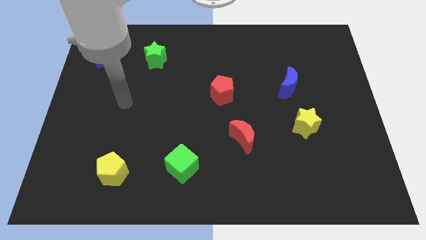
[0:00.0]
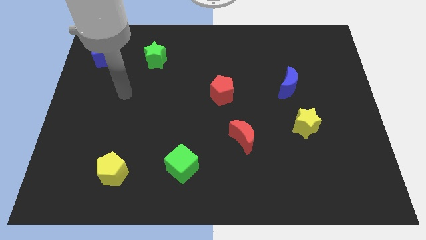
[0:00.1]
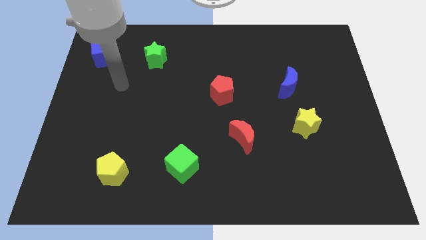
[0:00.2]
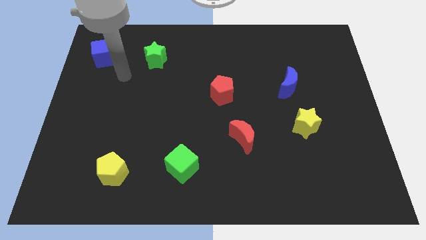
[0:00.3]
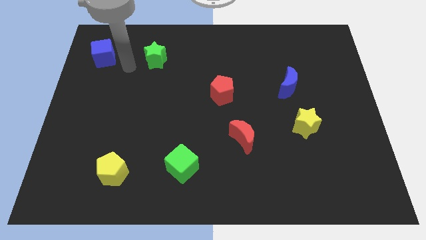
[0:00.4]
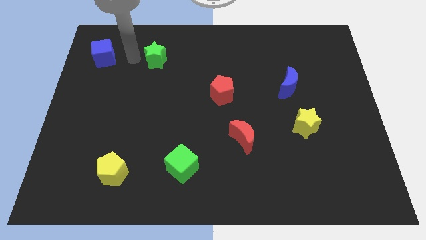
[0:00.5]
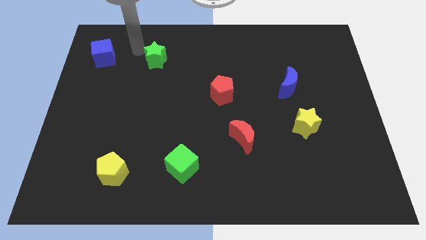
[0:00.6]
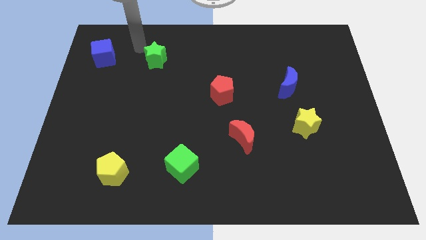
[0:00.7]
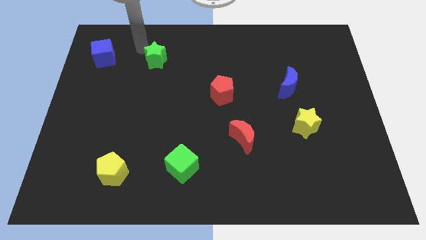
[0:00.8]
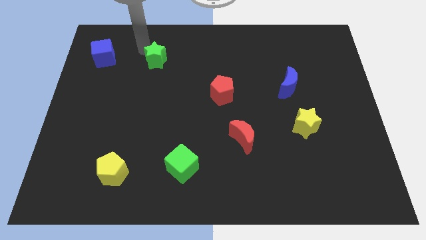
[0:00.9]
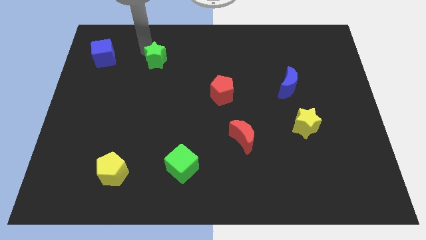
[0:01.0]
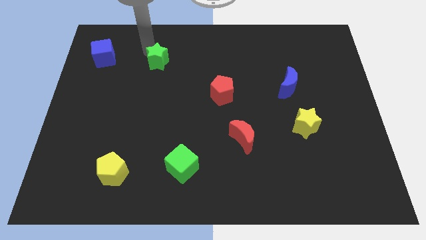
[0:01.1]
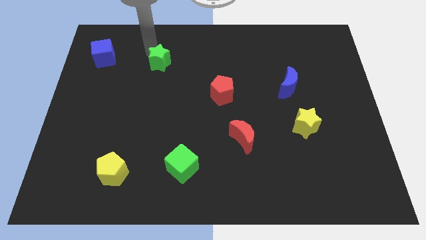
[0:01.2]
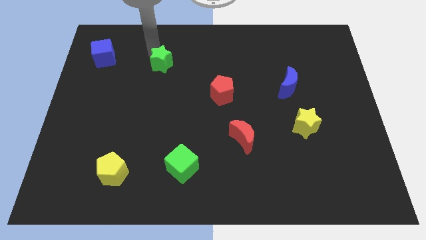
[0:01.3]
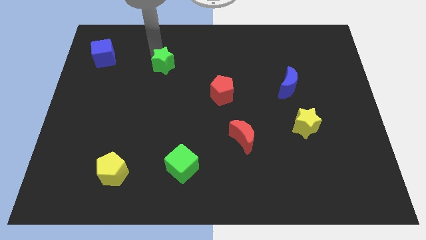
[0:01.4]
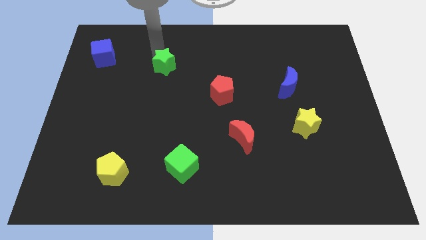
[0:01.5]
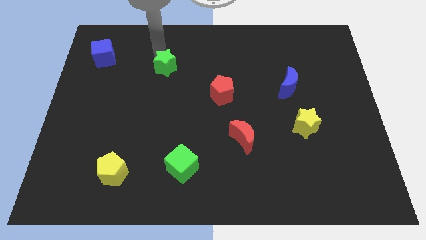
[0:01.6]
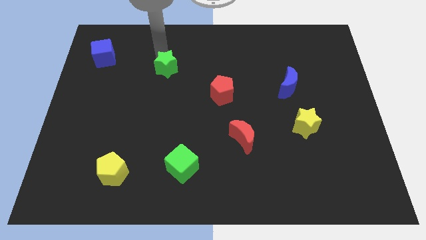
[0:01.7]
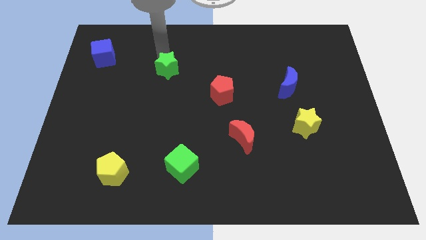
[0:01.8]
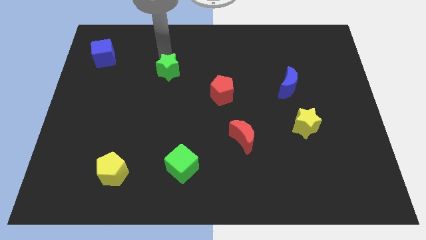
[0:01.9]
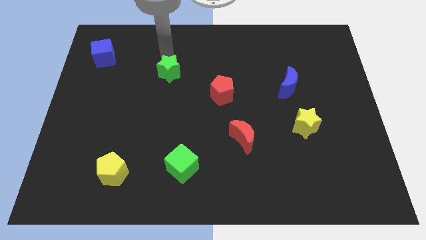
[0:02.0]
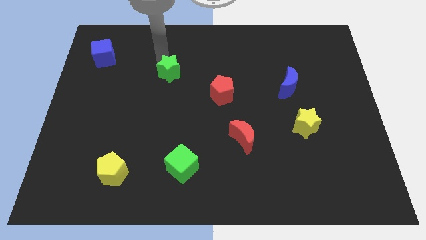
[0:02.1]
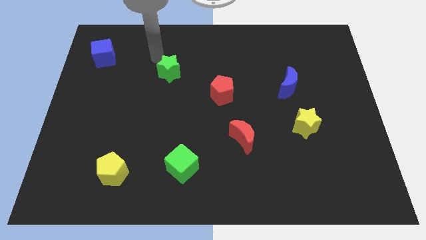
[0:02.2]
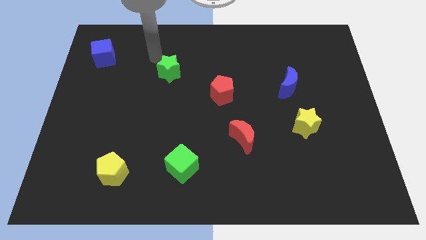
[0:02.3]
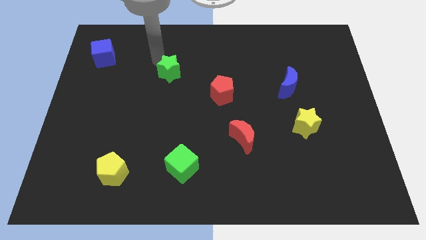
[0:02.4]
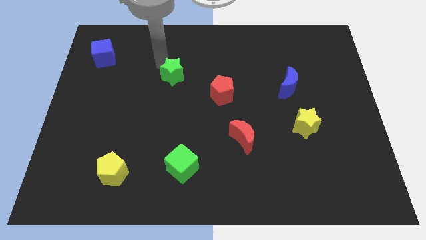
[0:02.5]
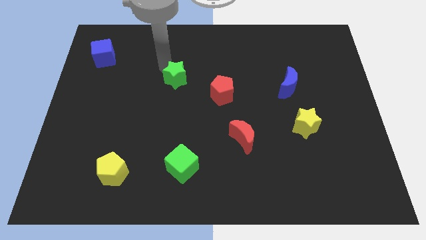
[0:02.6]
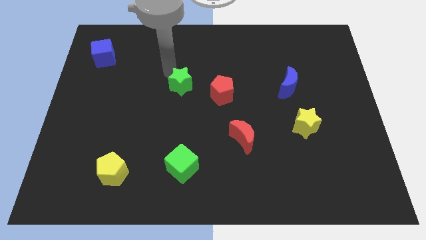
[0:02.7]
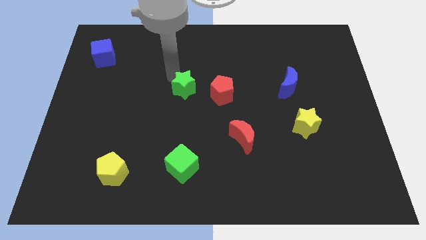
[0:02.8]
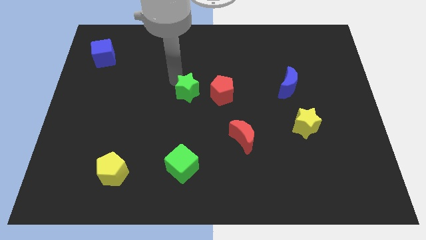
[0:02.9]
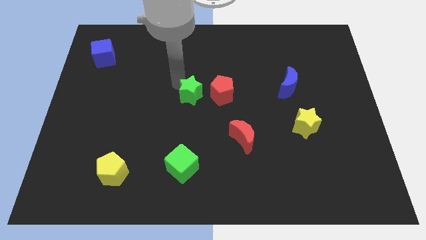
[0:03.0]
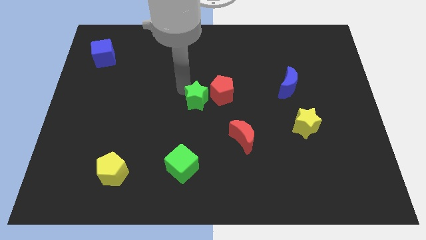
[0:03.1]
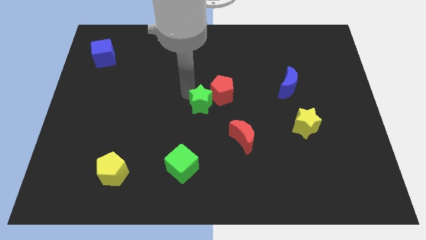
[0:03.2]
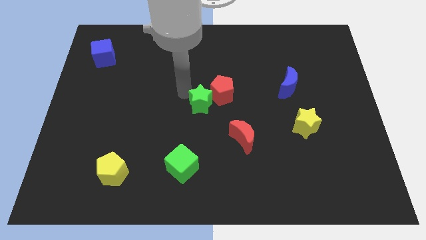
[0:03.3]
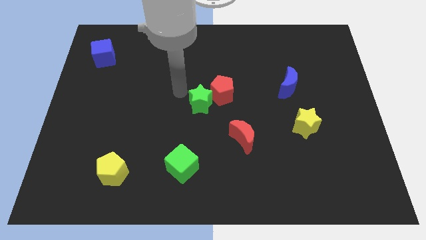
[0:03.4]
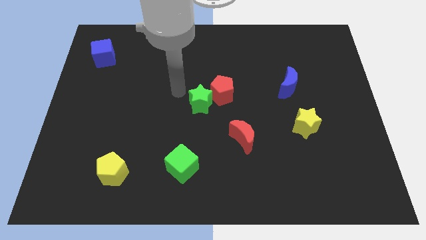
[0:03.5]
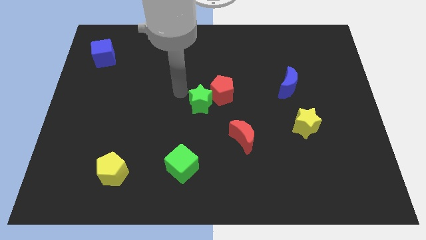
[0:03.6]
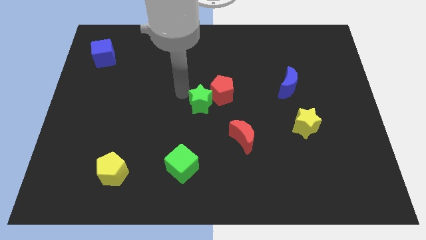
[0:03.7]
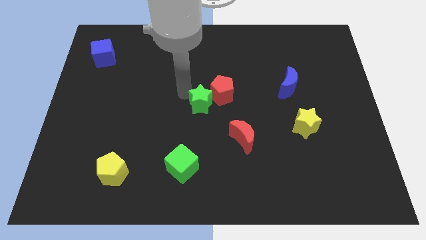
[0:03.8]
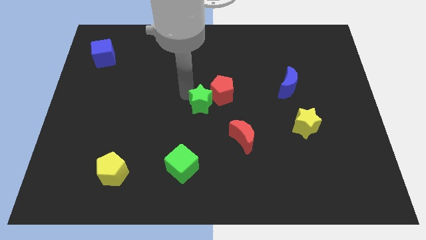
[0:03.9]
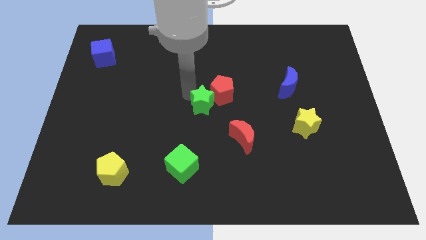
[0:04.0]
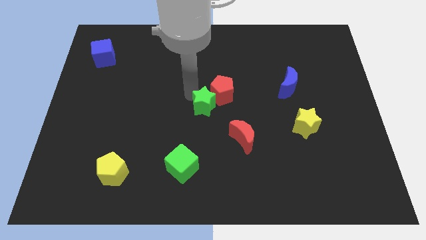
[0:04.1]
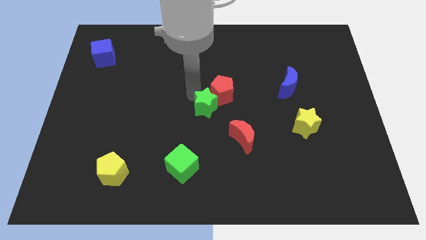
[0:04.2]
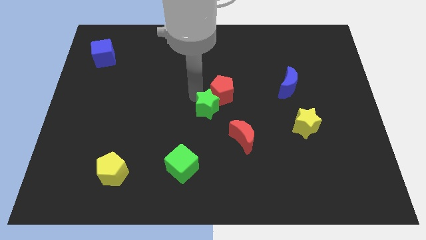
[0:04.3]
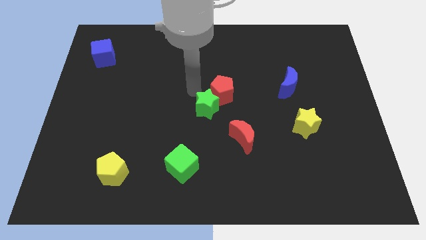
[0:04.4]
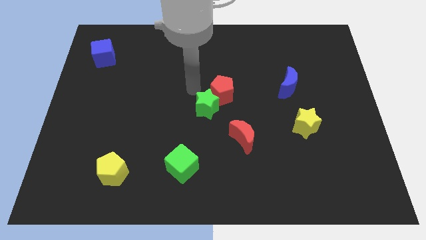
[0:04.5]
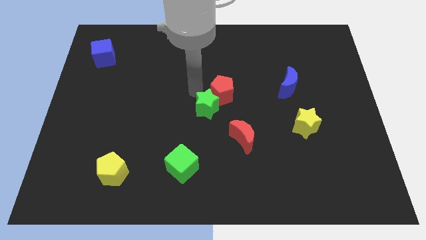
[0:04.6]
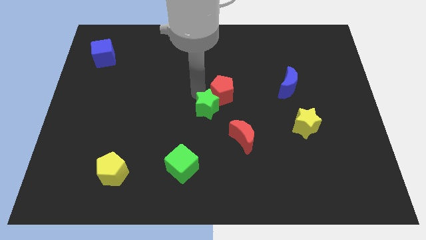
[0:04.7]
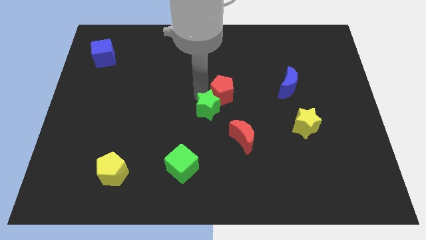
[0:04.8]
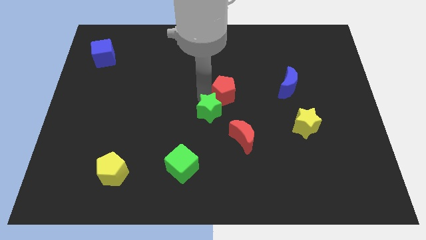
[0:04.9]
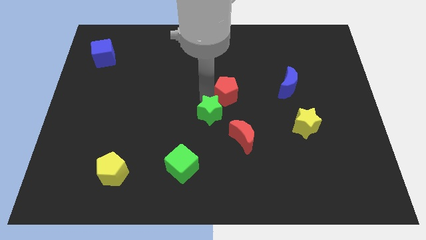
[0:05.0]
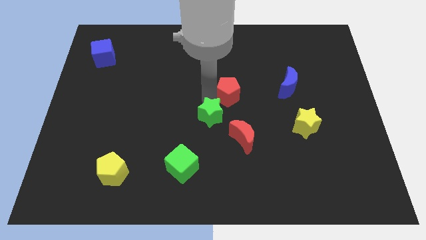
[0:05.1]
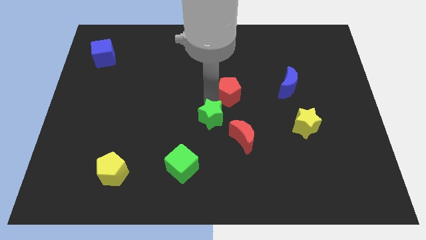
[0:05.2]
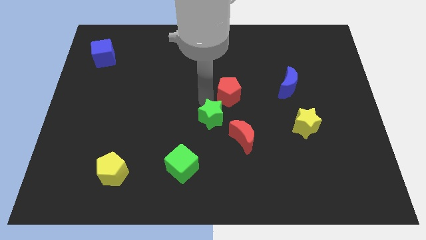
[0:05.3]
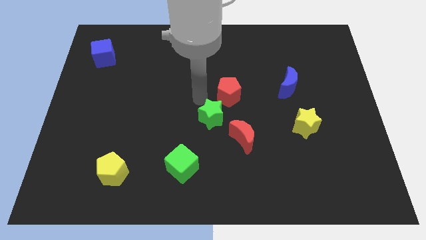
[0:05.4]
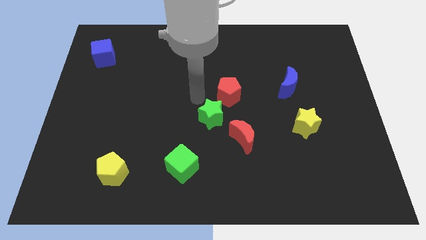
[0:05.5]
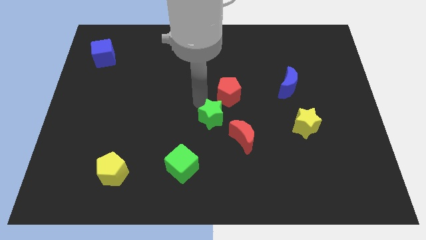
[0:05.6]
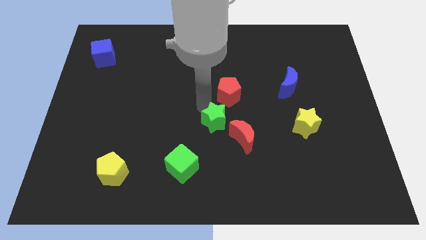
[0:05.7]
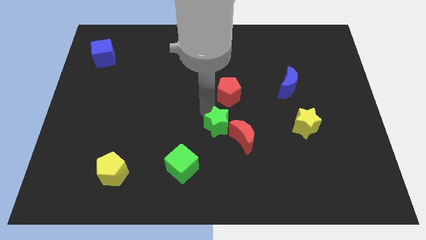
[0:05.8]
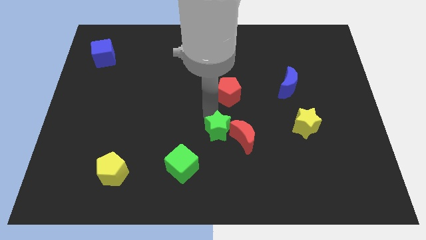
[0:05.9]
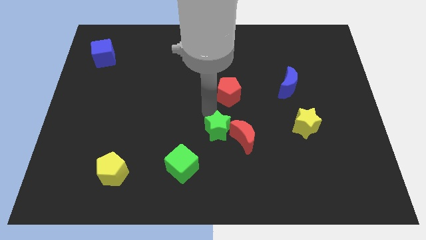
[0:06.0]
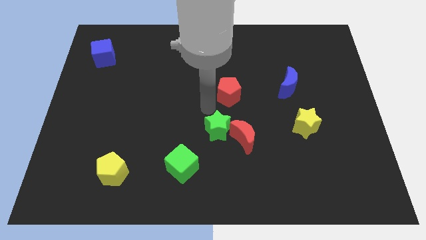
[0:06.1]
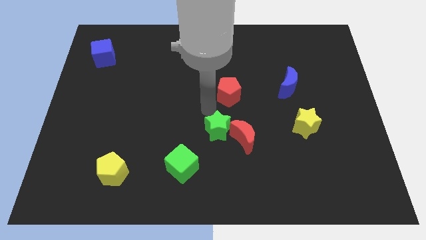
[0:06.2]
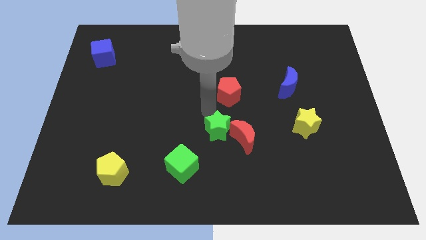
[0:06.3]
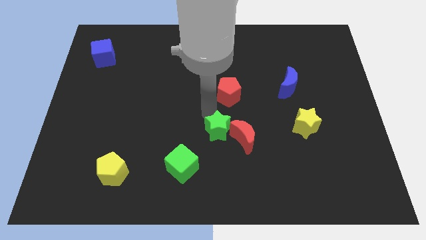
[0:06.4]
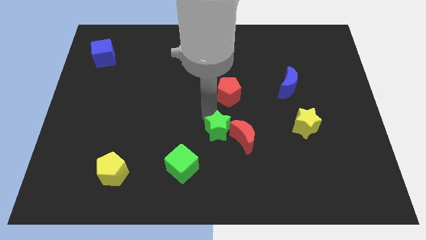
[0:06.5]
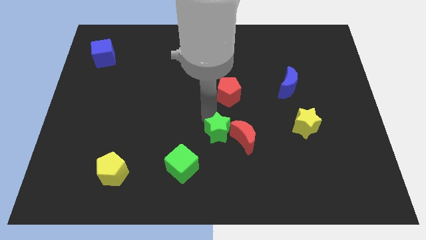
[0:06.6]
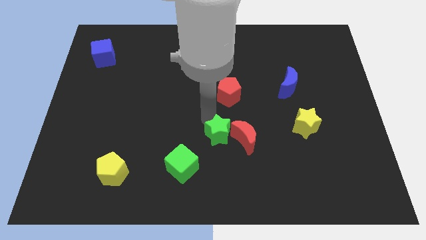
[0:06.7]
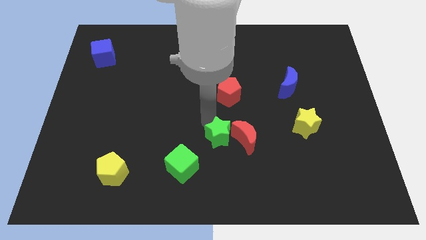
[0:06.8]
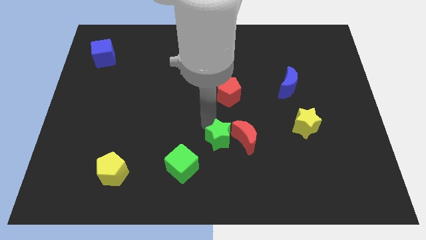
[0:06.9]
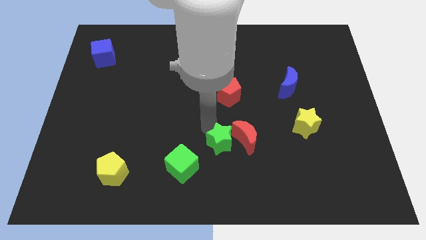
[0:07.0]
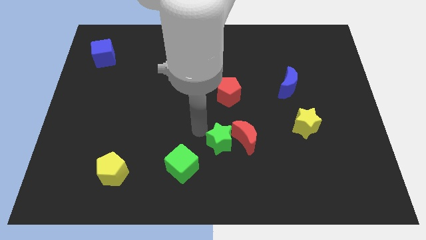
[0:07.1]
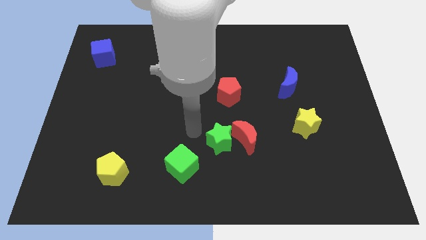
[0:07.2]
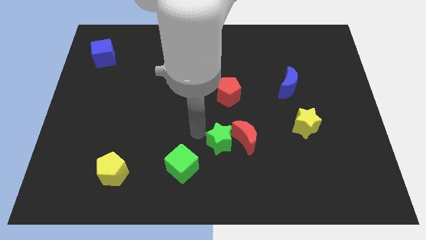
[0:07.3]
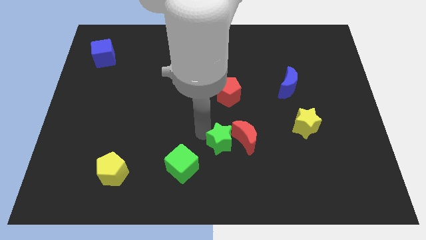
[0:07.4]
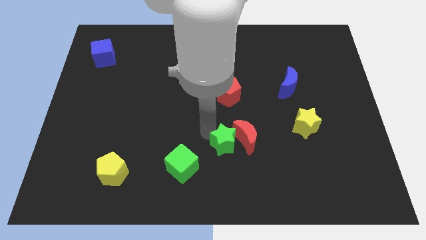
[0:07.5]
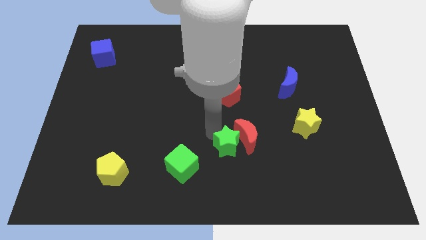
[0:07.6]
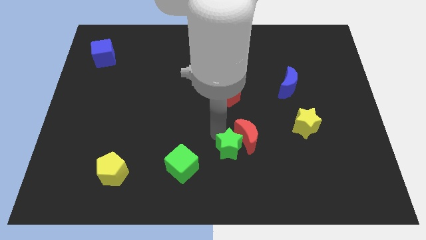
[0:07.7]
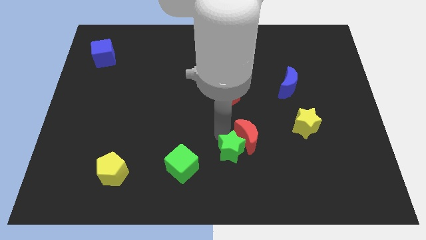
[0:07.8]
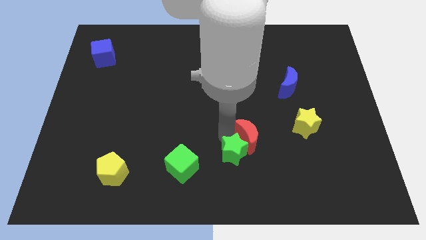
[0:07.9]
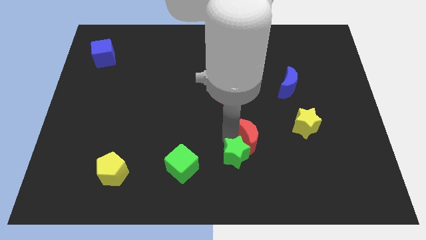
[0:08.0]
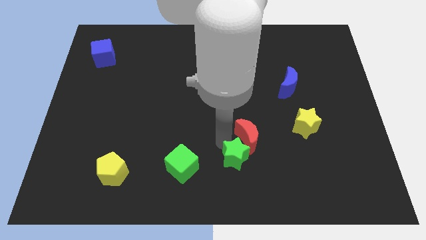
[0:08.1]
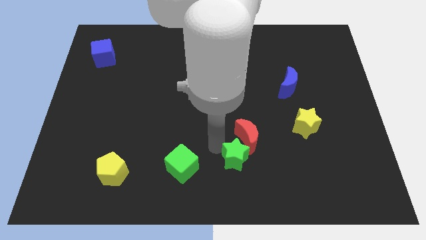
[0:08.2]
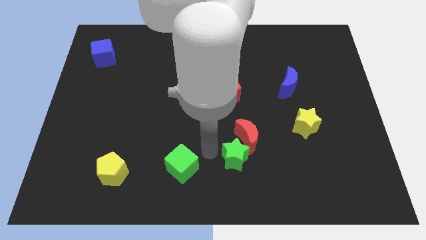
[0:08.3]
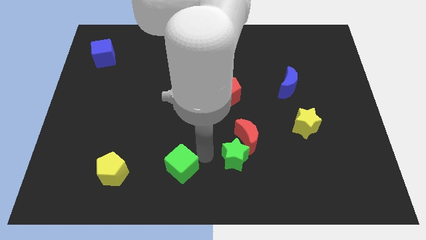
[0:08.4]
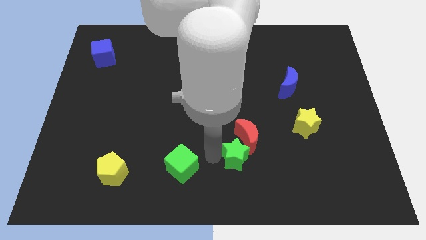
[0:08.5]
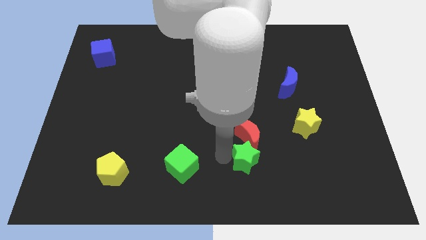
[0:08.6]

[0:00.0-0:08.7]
move the green star to the bottom right of the red moon
